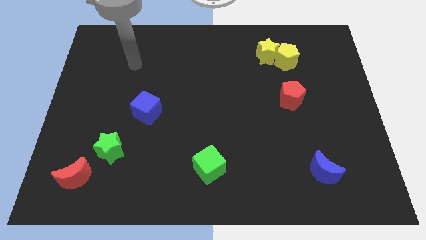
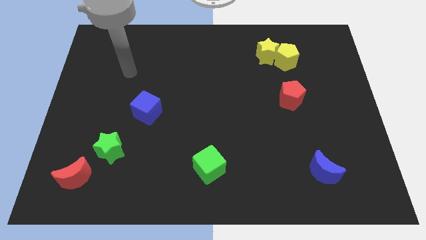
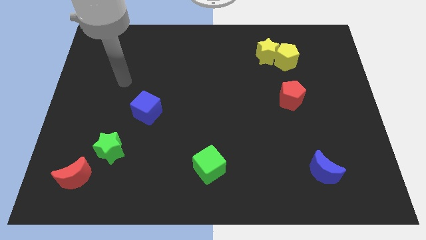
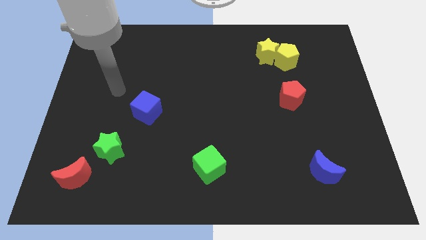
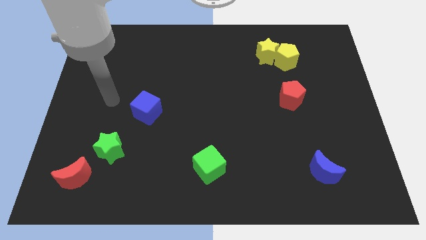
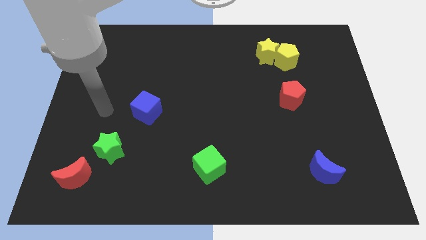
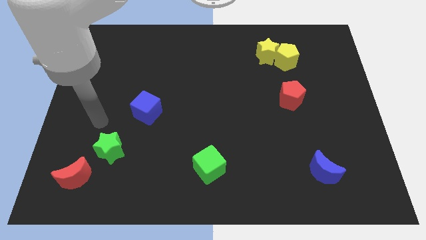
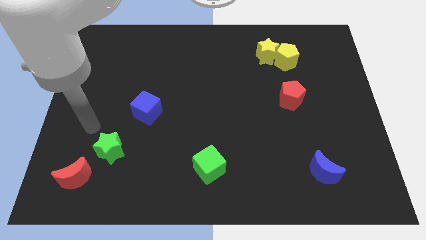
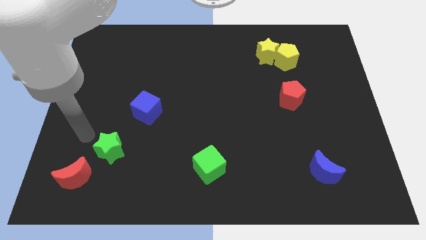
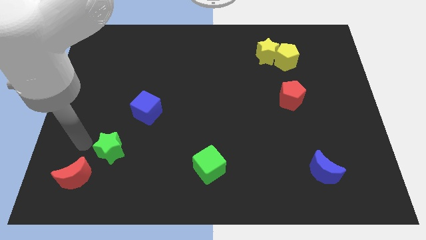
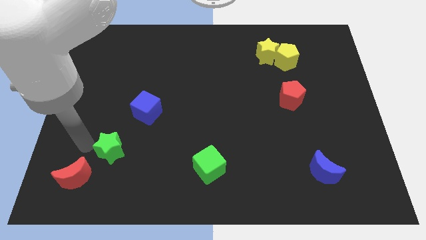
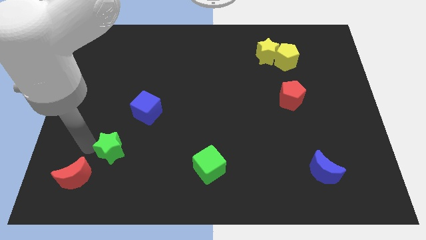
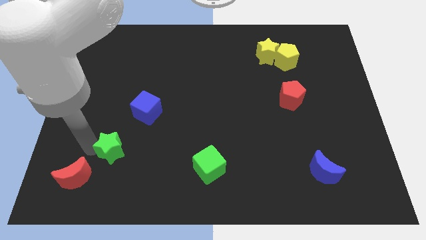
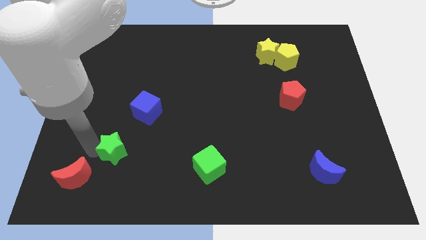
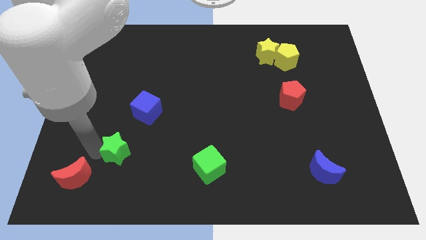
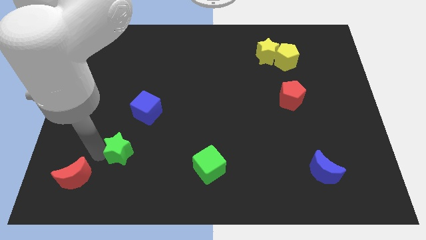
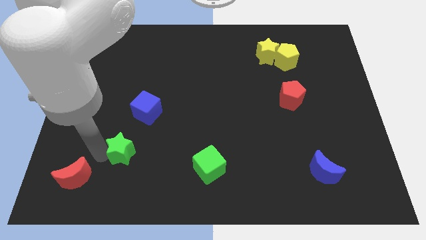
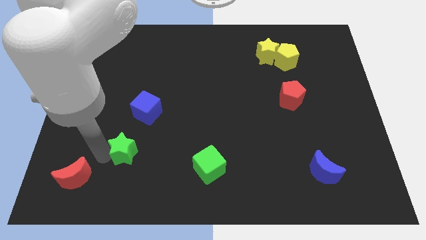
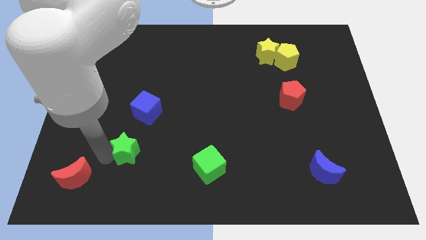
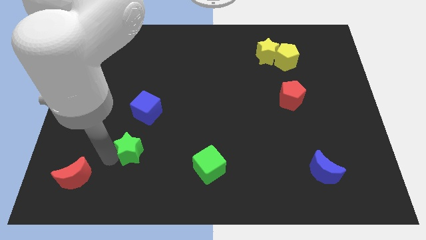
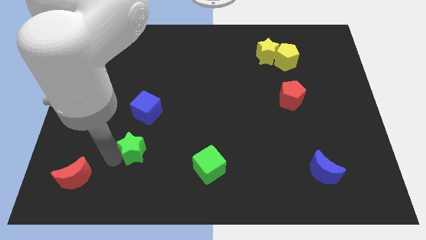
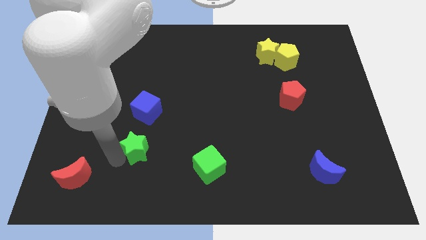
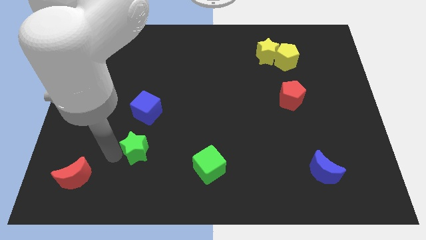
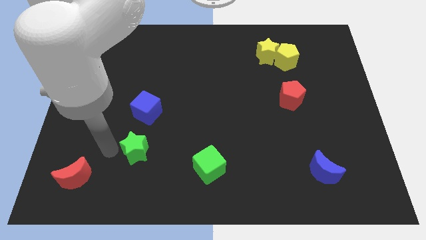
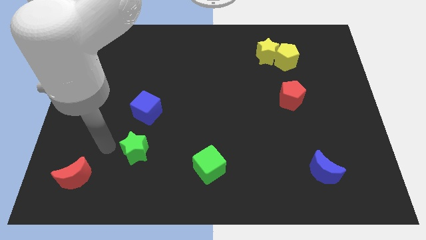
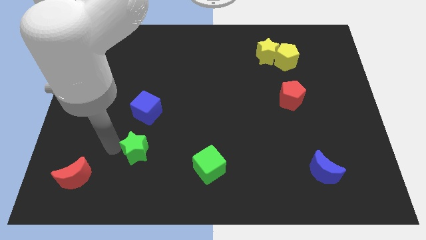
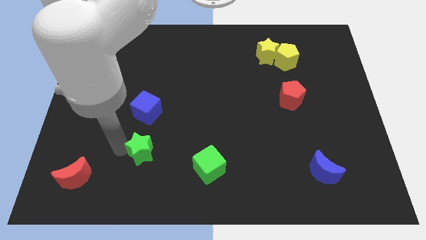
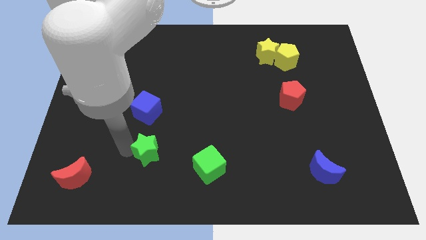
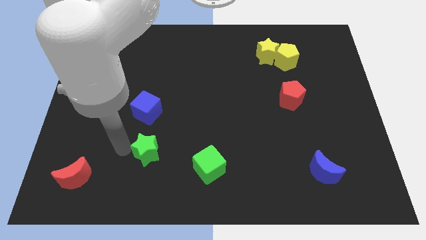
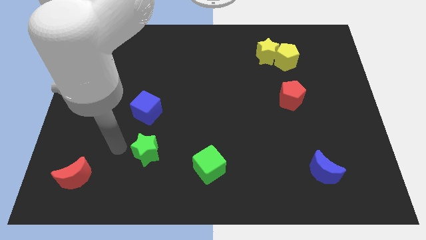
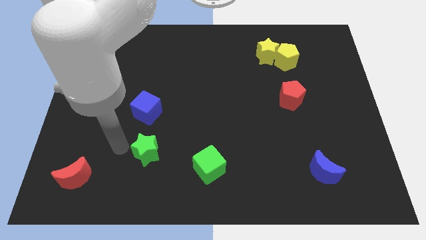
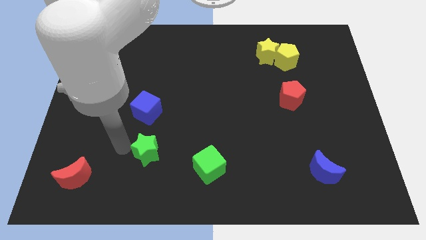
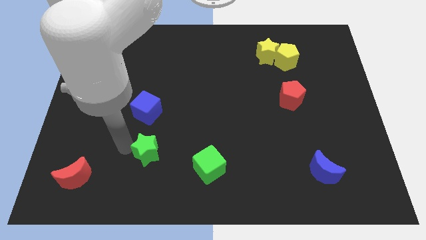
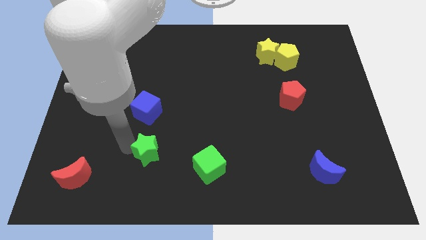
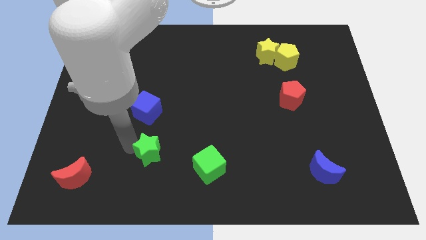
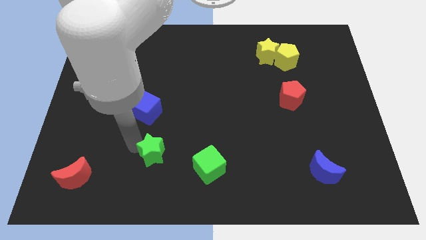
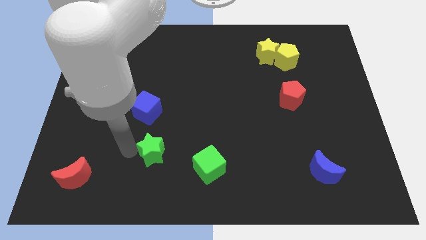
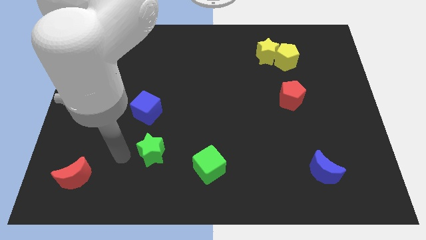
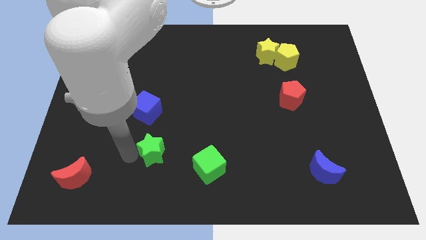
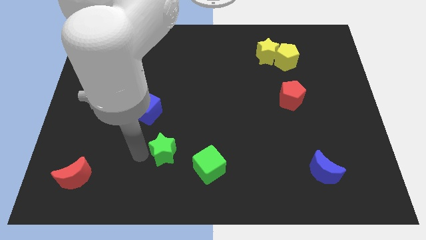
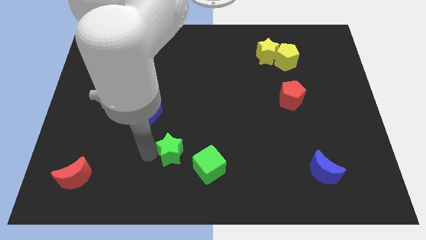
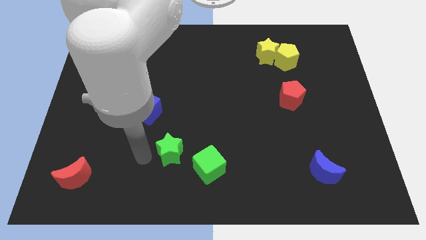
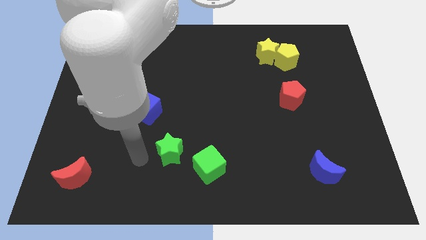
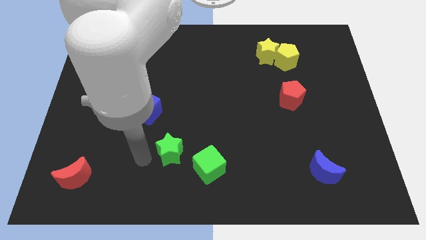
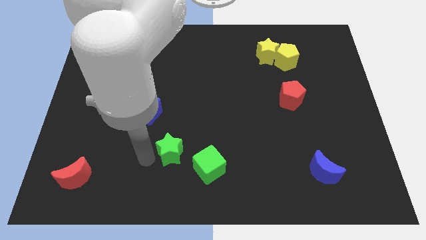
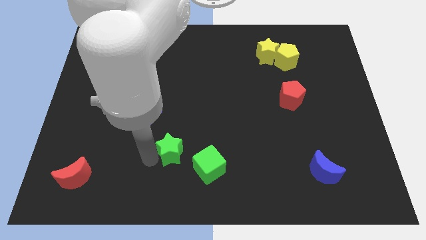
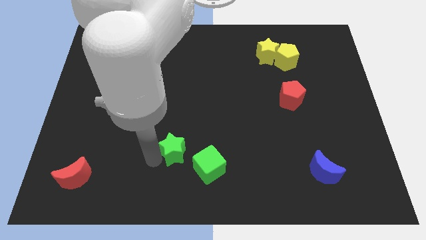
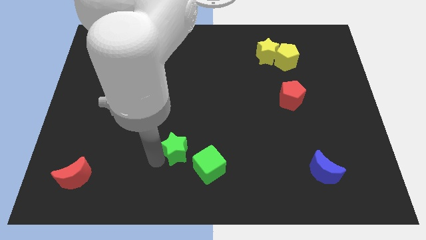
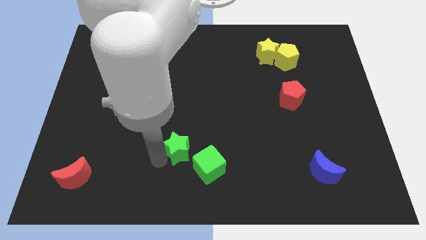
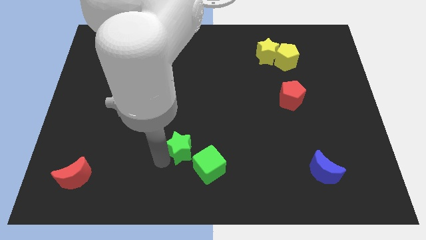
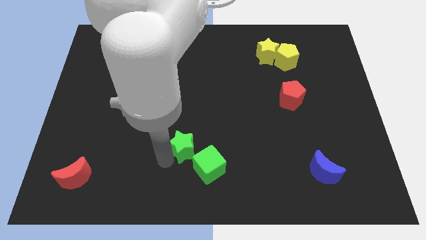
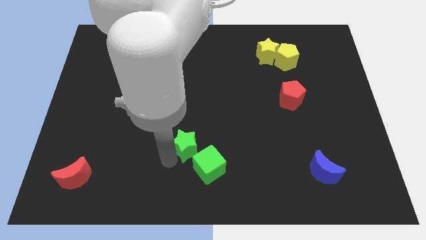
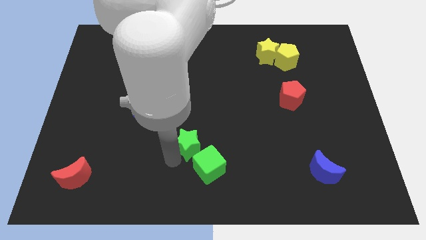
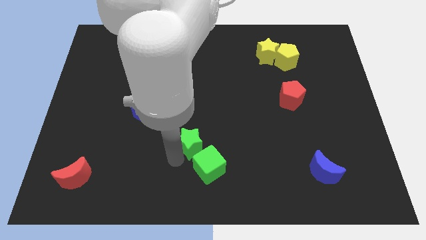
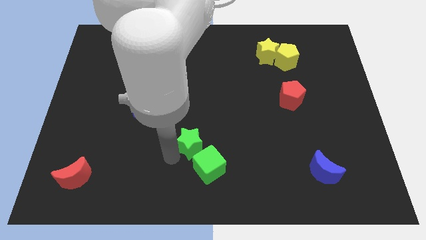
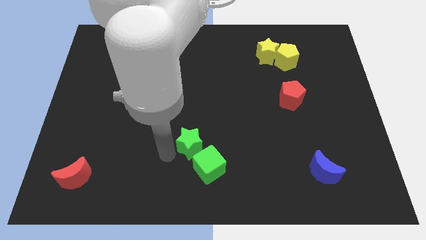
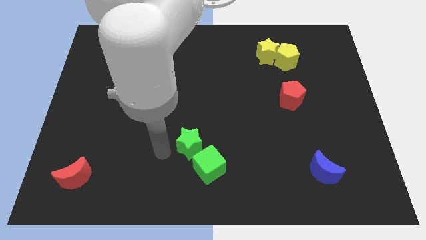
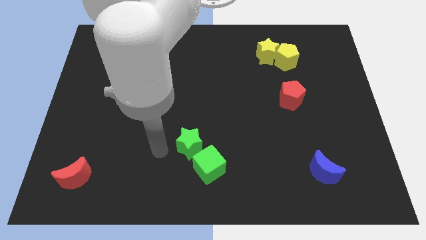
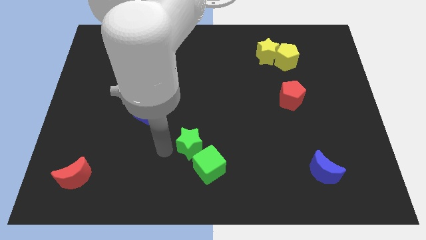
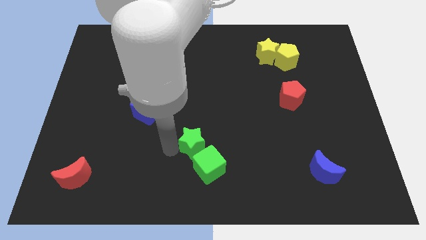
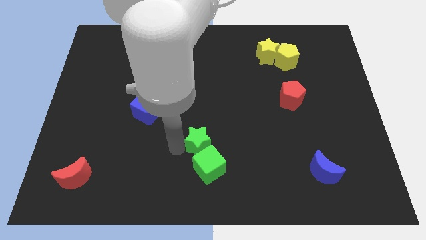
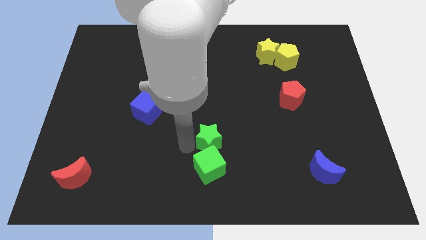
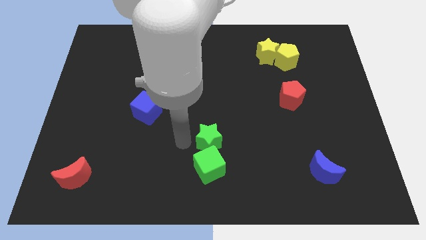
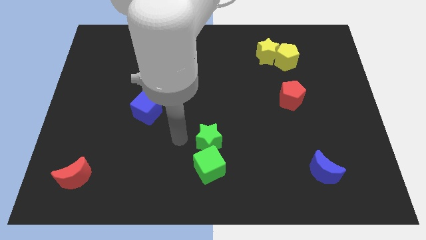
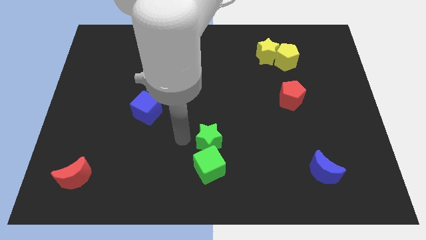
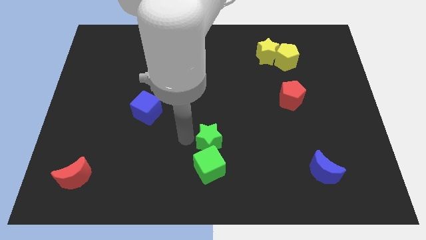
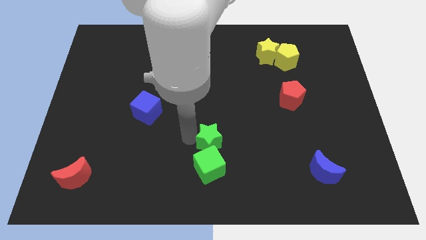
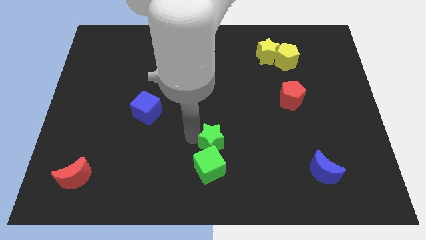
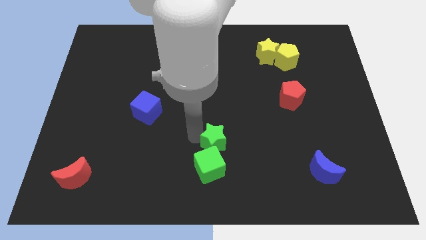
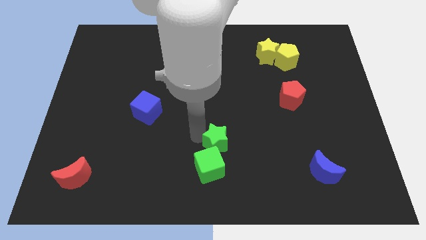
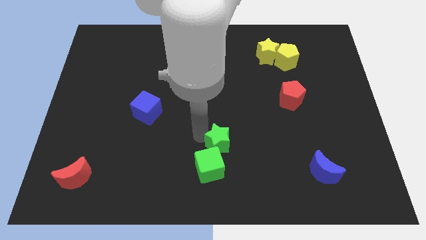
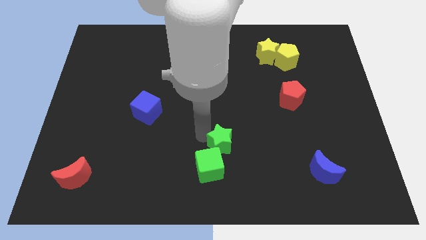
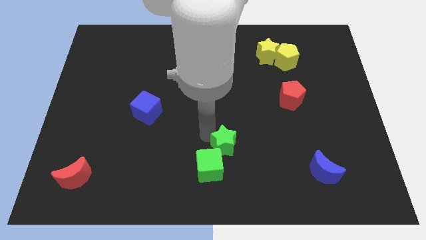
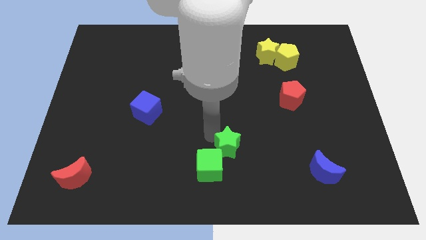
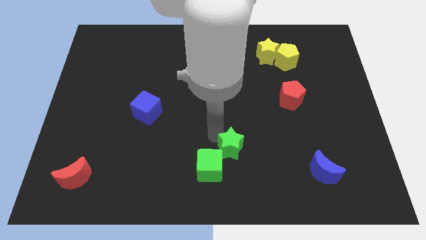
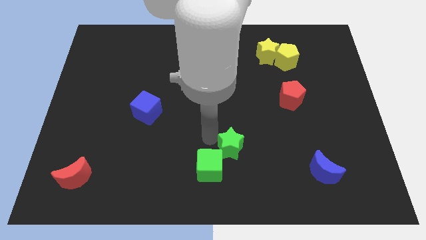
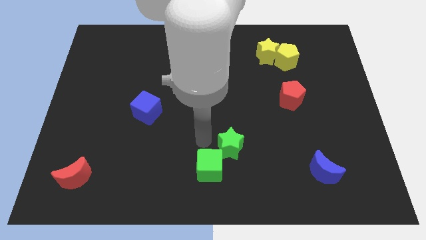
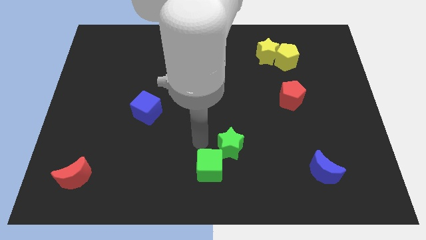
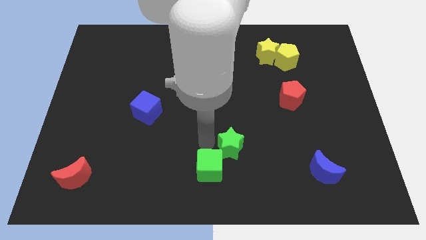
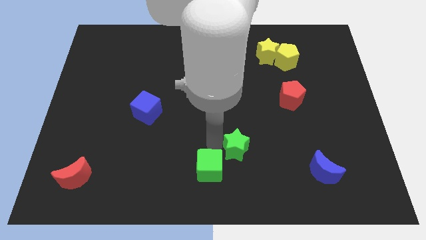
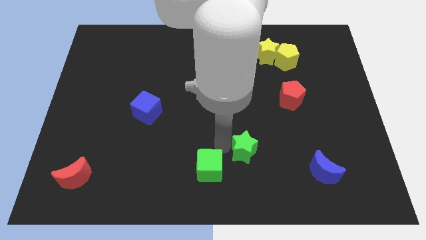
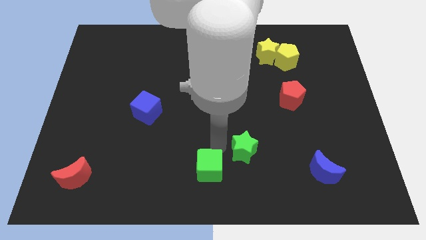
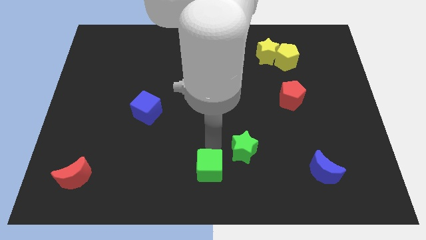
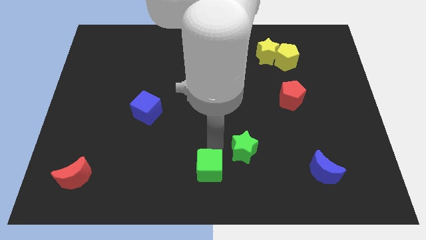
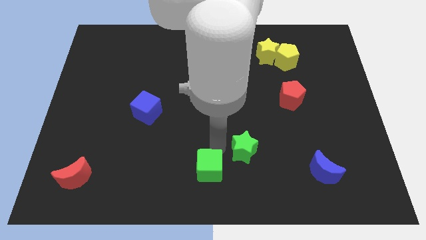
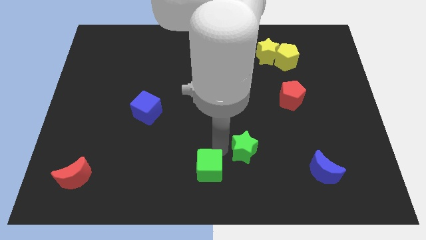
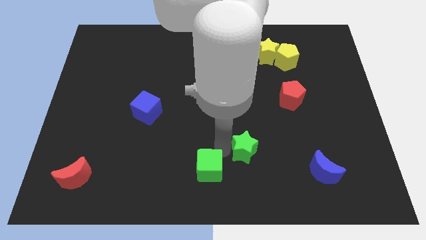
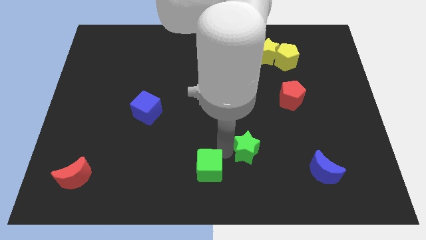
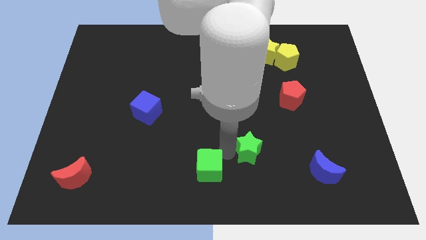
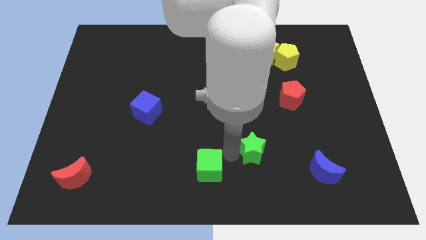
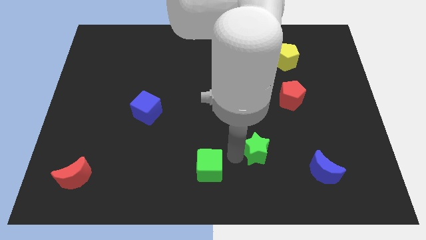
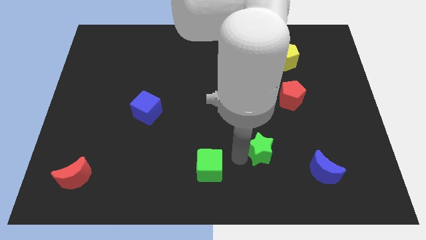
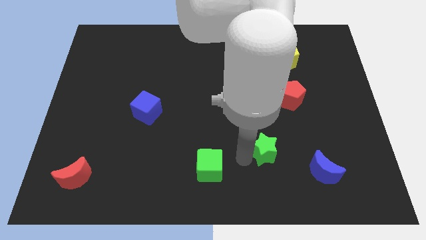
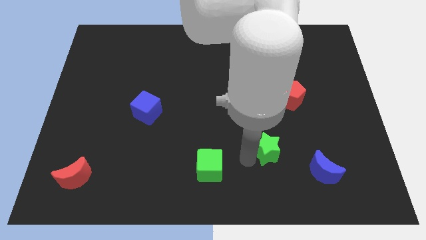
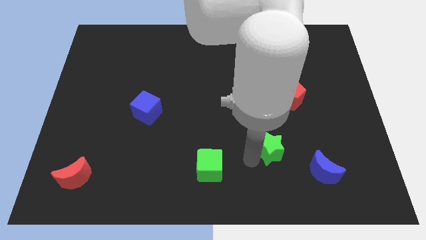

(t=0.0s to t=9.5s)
slide the green star diagonally up and to the left of the blue moon
